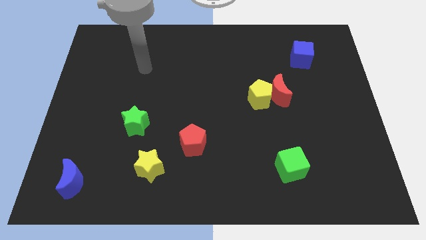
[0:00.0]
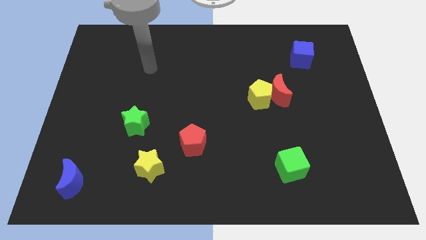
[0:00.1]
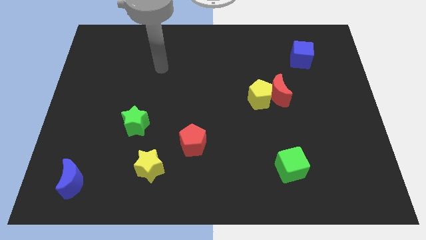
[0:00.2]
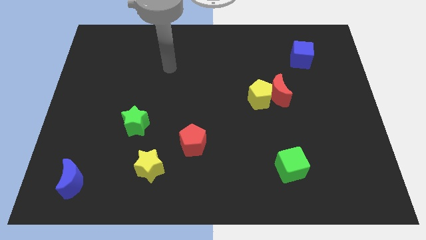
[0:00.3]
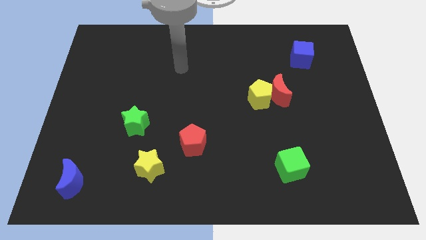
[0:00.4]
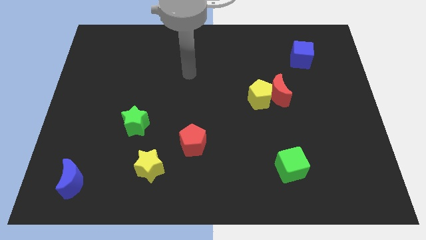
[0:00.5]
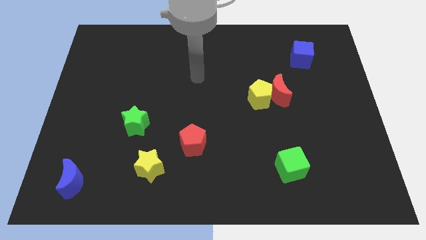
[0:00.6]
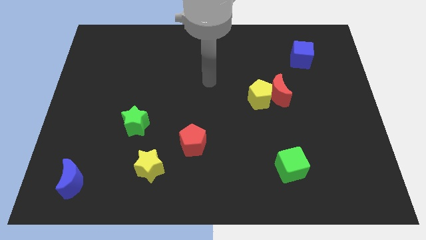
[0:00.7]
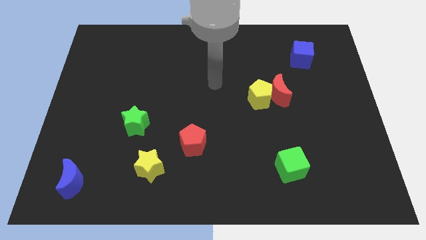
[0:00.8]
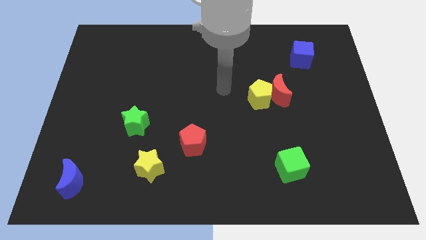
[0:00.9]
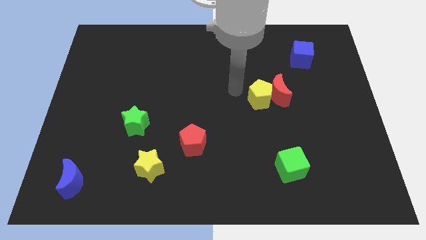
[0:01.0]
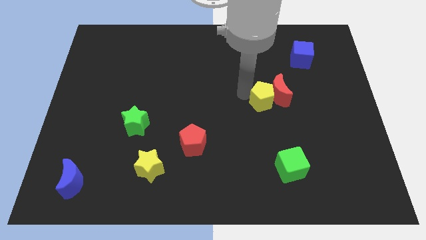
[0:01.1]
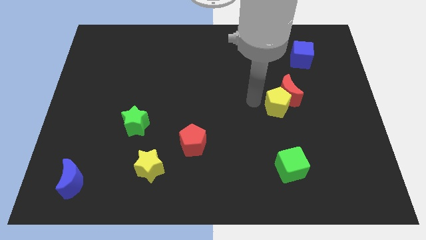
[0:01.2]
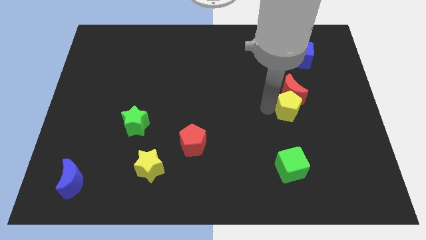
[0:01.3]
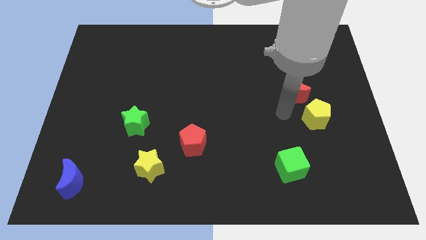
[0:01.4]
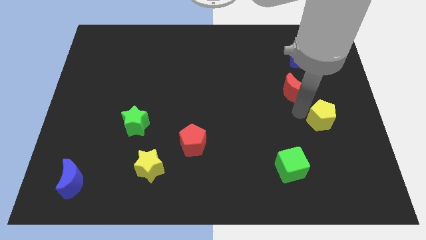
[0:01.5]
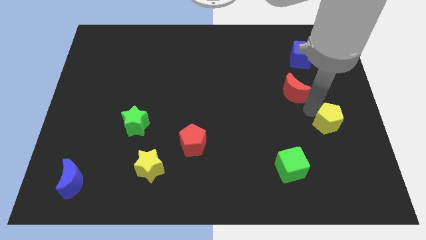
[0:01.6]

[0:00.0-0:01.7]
move the red moon away from the yellow pentagon

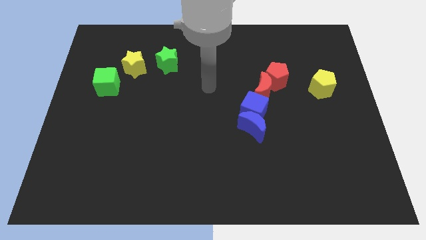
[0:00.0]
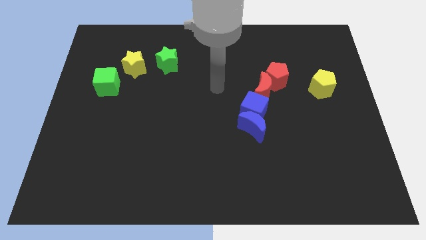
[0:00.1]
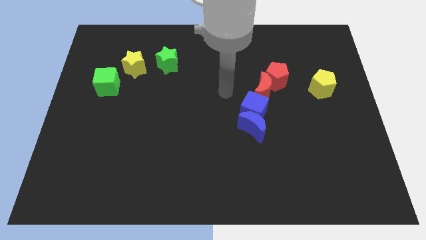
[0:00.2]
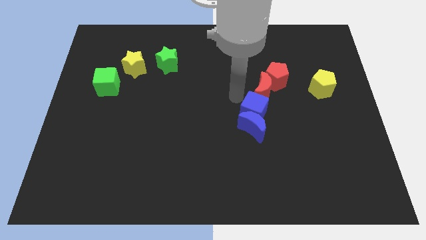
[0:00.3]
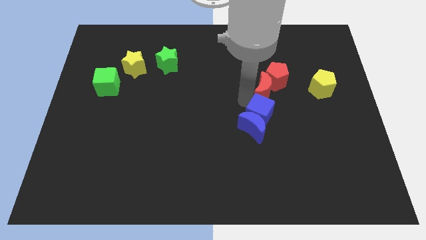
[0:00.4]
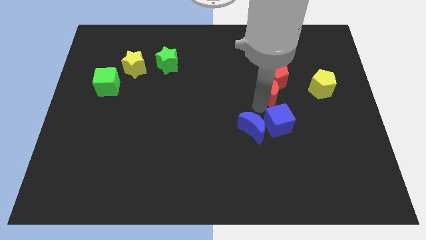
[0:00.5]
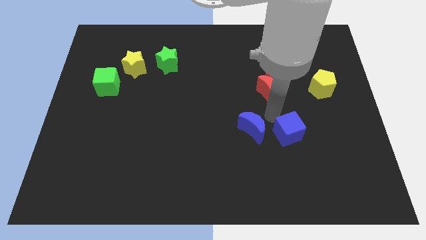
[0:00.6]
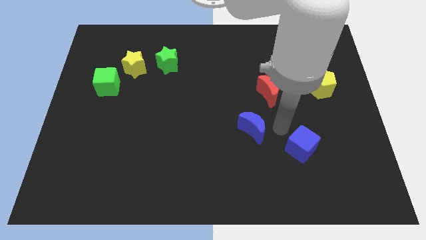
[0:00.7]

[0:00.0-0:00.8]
move the blue moon away from the blue cube

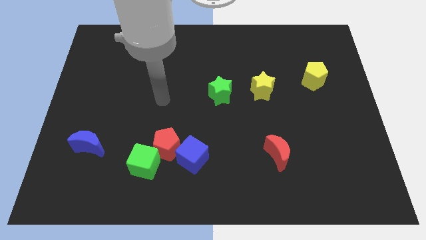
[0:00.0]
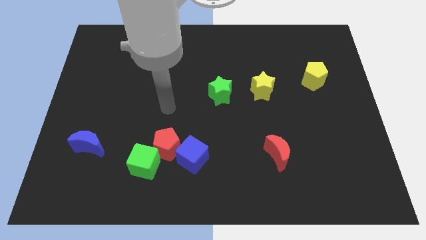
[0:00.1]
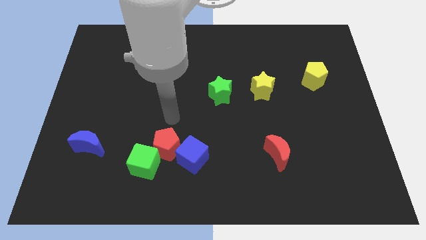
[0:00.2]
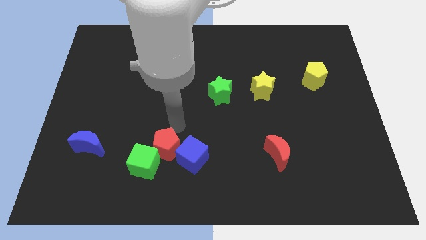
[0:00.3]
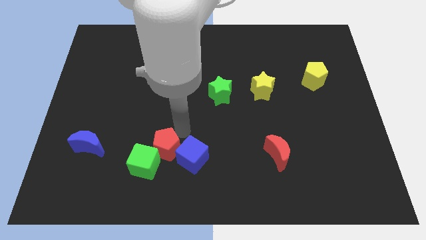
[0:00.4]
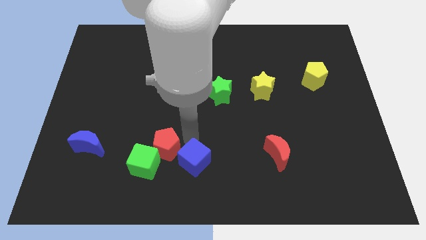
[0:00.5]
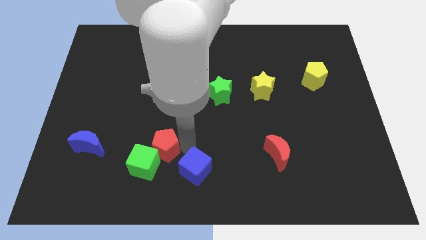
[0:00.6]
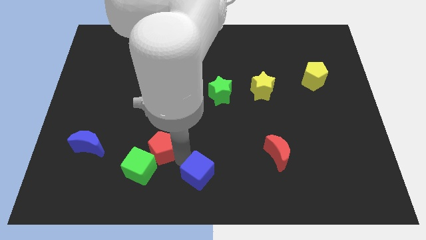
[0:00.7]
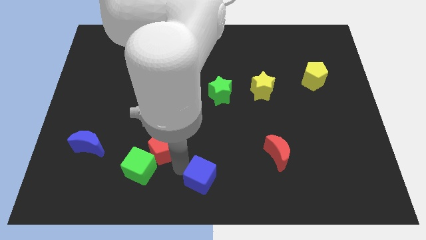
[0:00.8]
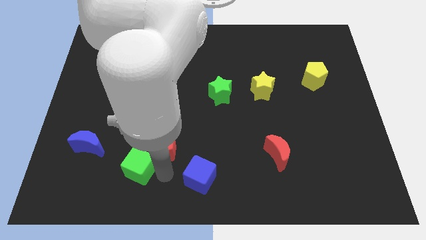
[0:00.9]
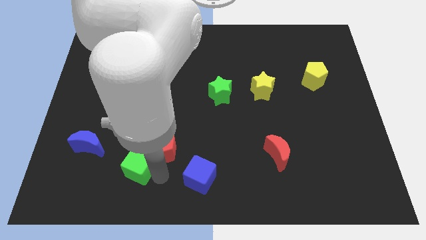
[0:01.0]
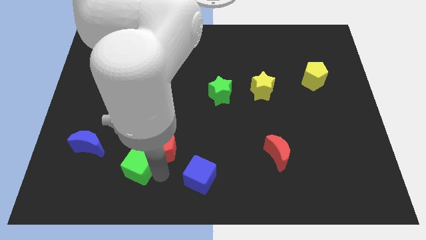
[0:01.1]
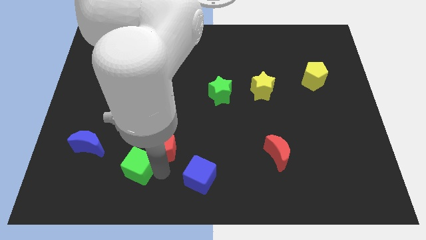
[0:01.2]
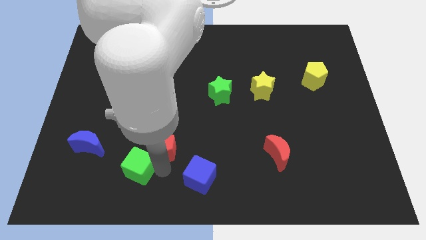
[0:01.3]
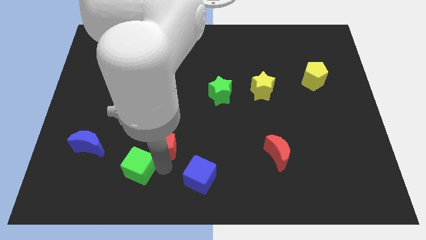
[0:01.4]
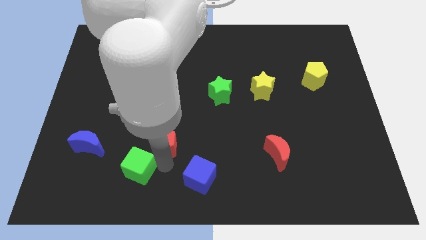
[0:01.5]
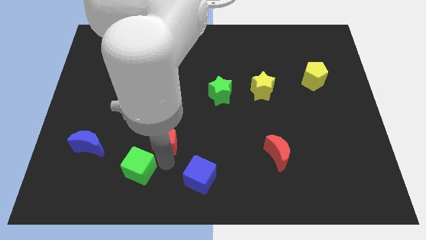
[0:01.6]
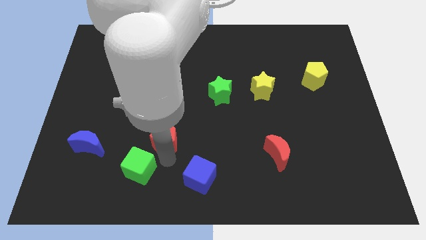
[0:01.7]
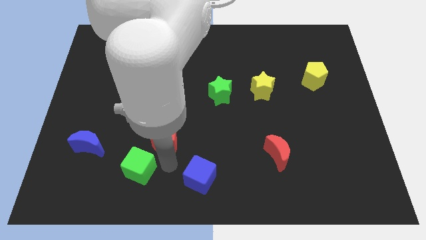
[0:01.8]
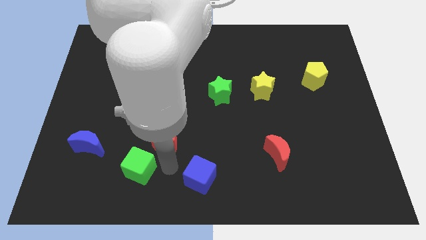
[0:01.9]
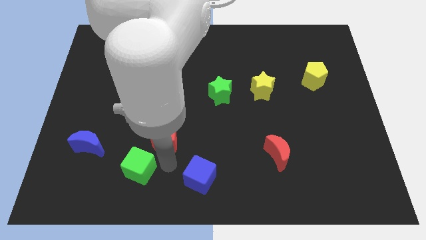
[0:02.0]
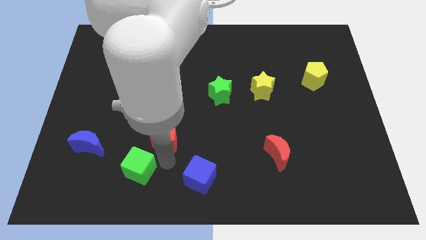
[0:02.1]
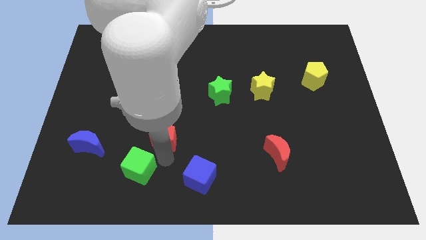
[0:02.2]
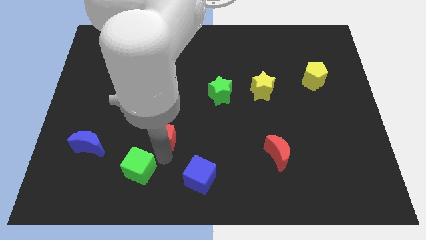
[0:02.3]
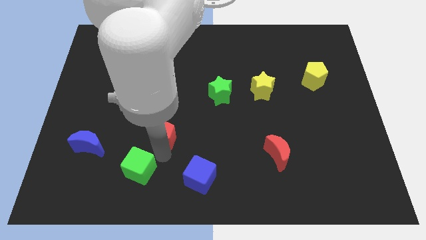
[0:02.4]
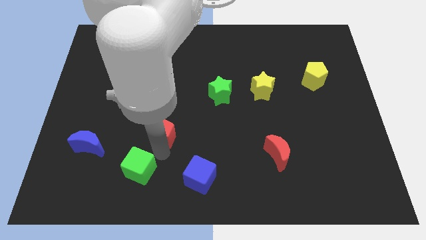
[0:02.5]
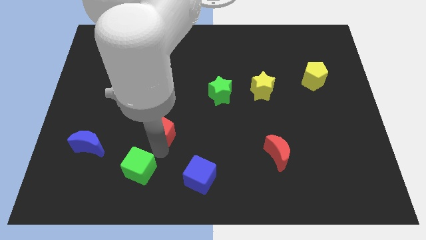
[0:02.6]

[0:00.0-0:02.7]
move the red pentagon away from the green cube and blue cube

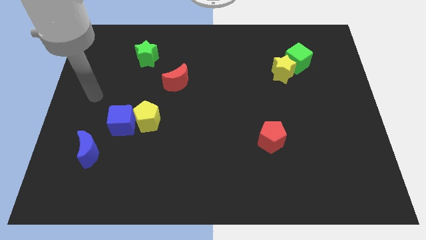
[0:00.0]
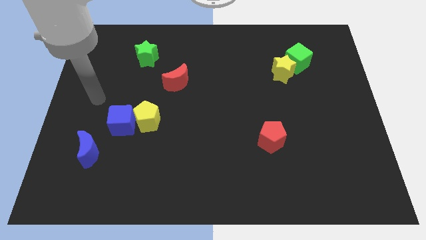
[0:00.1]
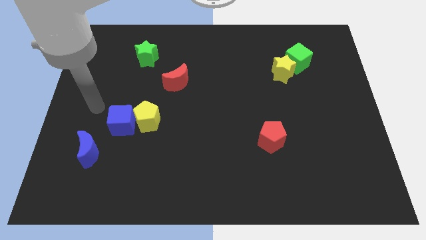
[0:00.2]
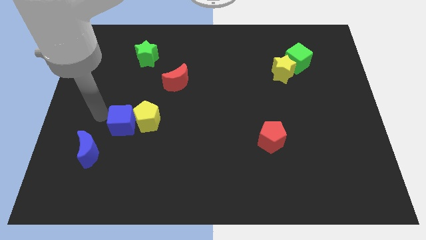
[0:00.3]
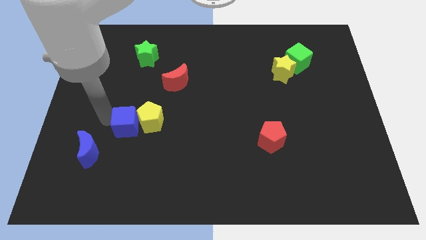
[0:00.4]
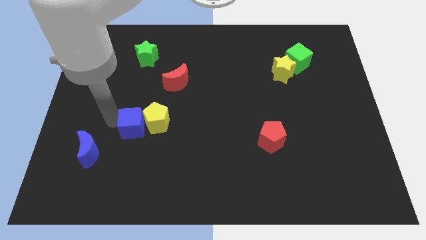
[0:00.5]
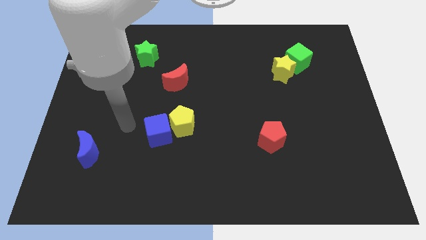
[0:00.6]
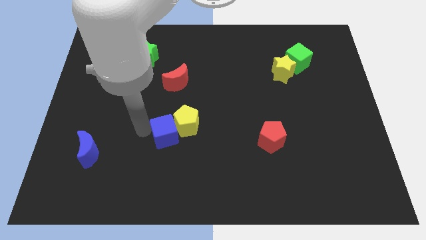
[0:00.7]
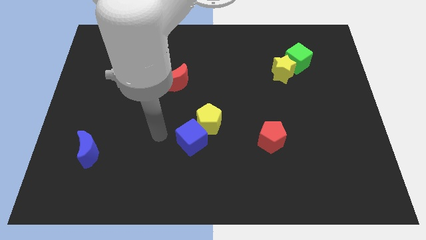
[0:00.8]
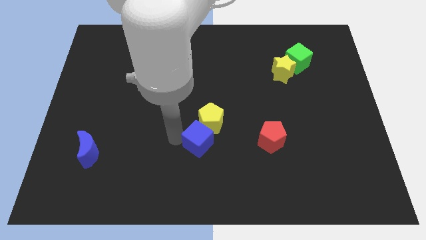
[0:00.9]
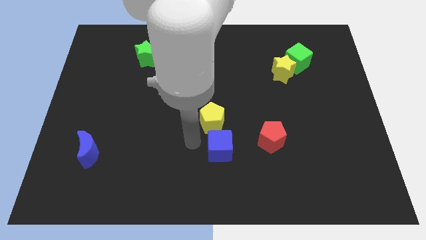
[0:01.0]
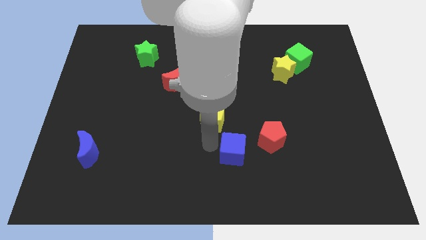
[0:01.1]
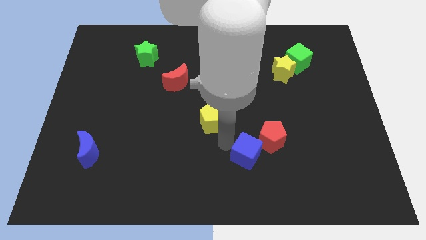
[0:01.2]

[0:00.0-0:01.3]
pull the yellow pentagon apart from the blue cube

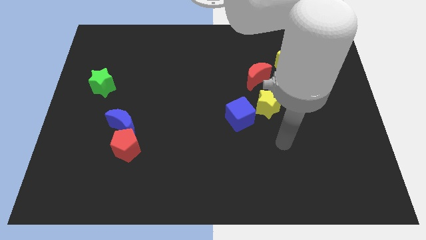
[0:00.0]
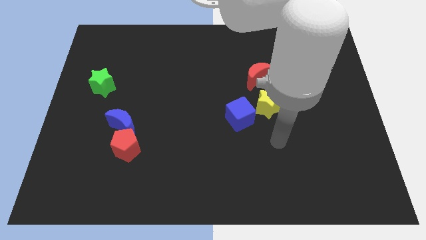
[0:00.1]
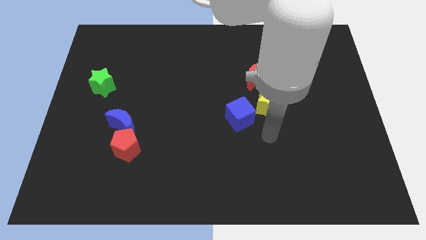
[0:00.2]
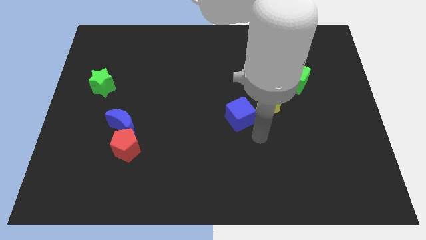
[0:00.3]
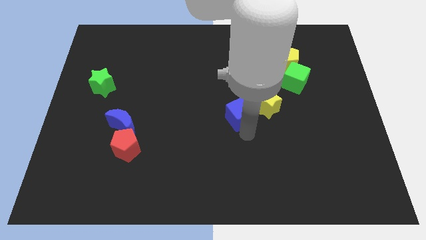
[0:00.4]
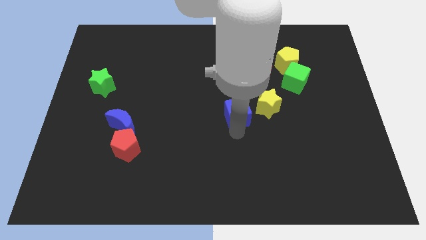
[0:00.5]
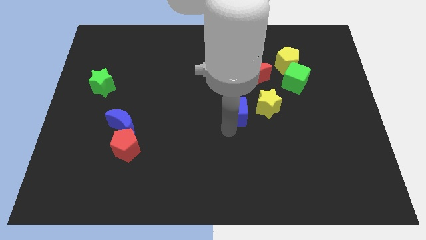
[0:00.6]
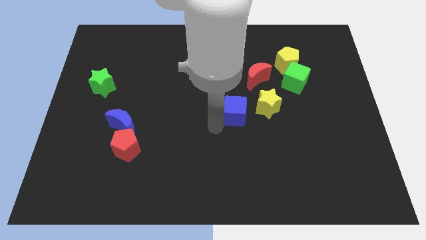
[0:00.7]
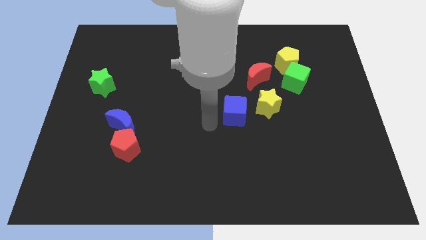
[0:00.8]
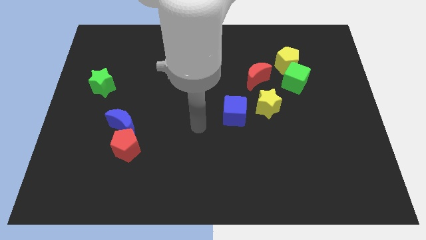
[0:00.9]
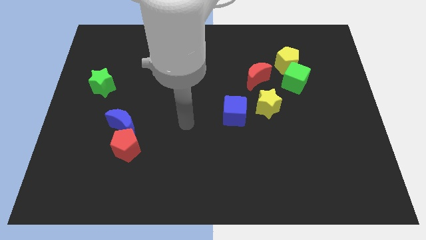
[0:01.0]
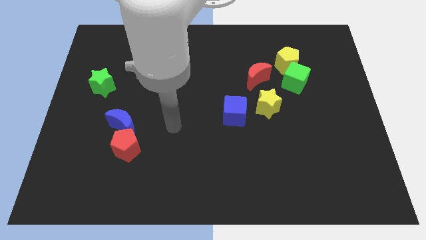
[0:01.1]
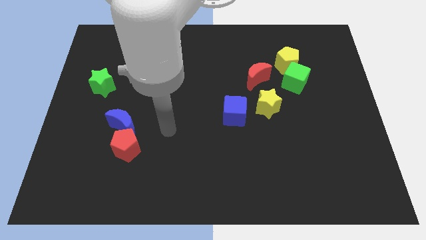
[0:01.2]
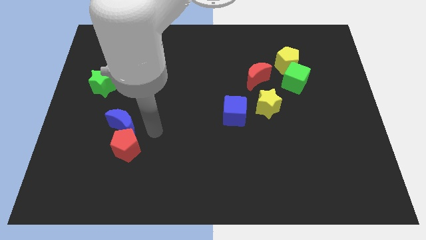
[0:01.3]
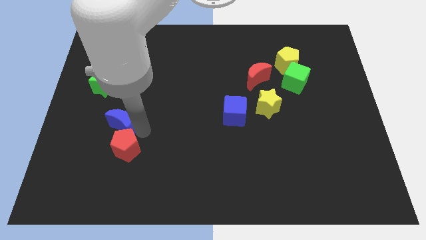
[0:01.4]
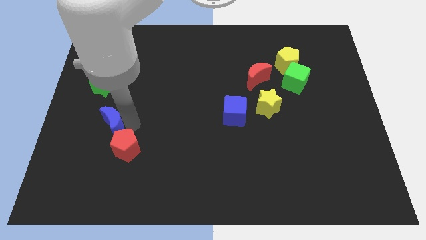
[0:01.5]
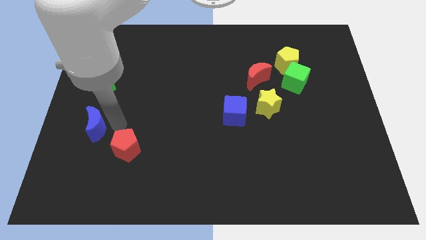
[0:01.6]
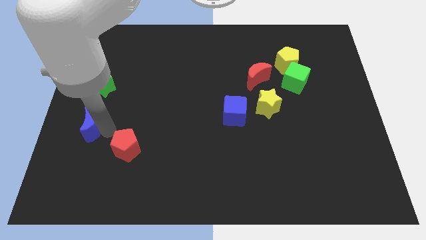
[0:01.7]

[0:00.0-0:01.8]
pull the red pentagon apart from the blue moon

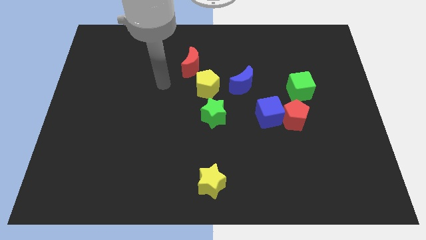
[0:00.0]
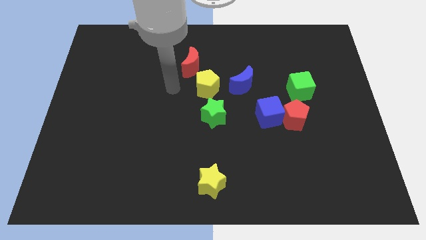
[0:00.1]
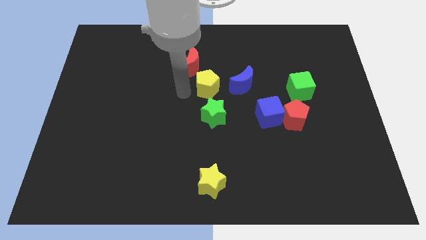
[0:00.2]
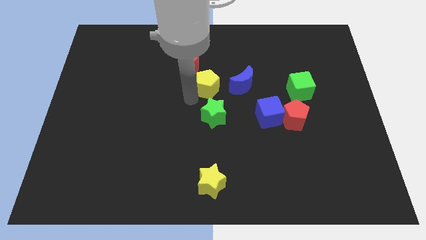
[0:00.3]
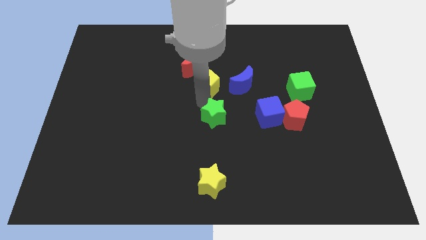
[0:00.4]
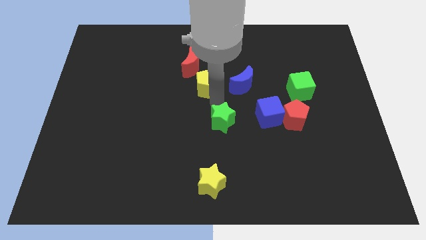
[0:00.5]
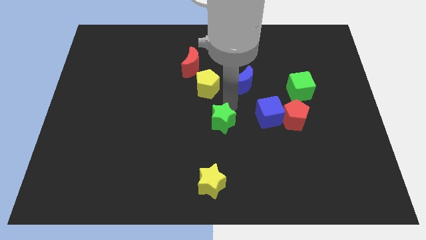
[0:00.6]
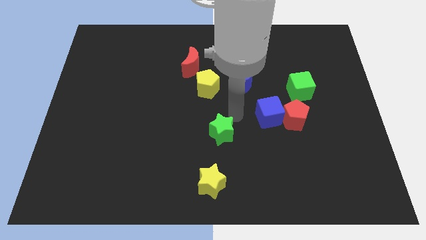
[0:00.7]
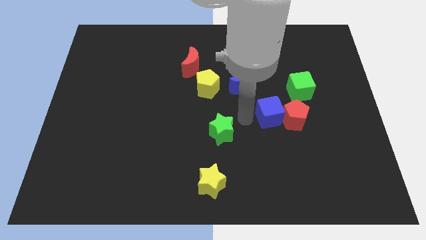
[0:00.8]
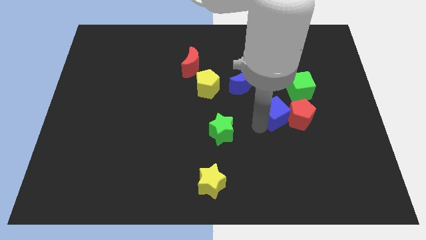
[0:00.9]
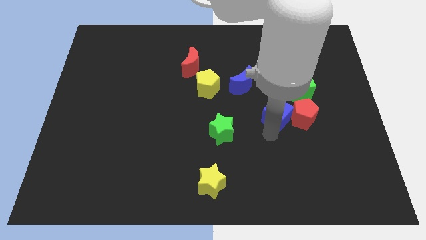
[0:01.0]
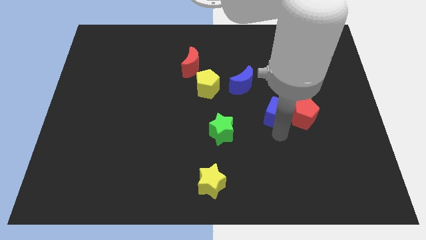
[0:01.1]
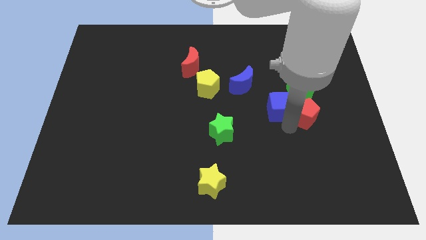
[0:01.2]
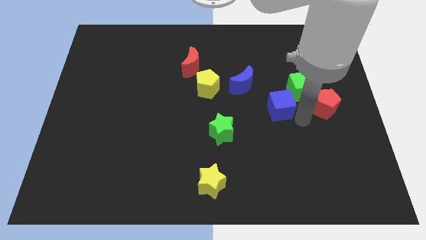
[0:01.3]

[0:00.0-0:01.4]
separate the blue cube from the red pentagon
